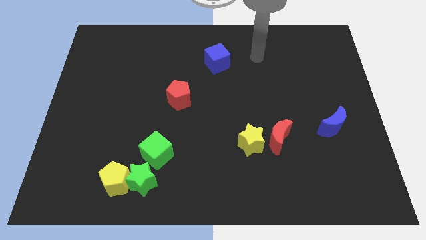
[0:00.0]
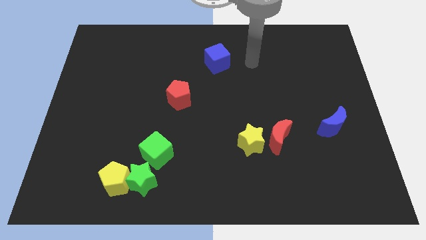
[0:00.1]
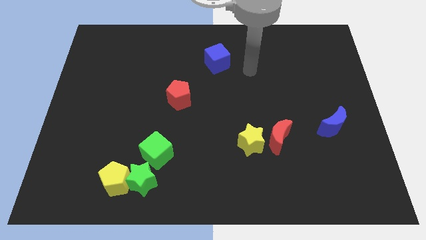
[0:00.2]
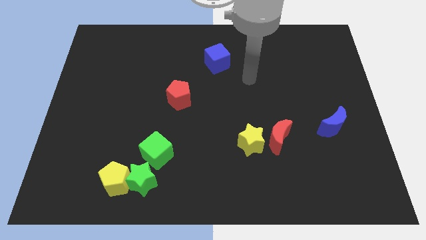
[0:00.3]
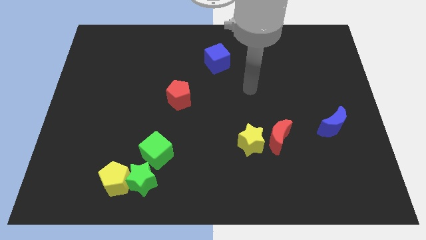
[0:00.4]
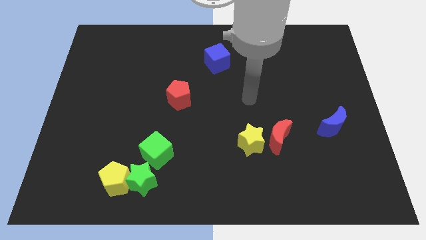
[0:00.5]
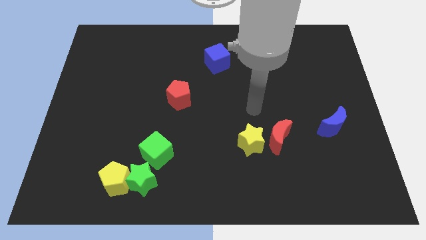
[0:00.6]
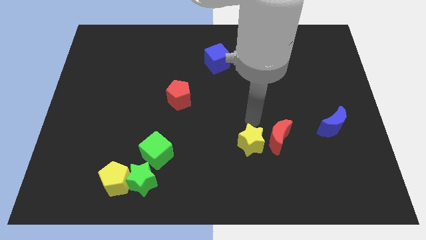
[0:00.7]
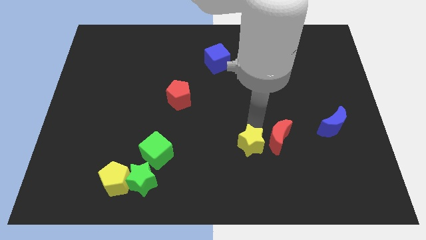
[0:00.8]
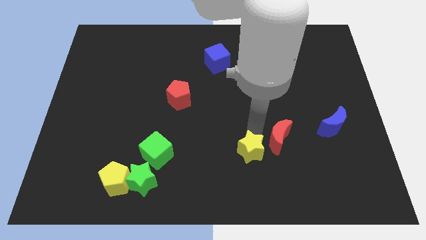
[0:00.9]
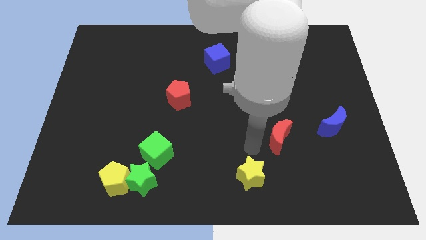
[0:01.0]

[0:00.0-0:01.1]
move the red moon away from the yellow star

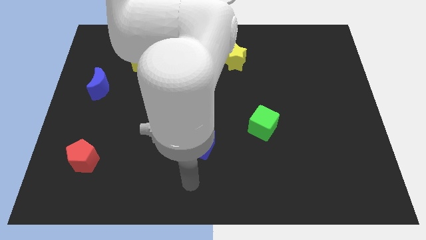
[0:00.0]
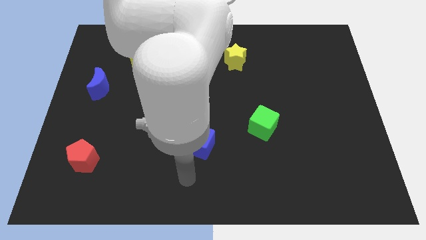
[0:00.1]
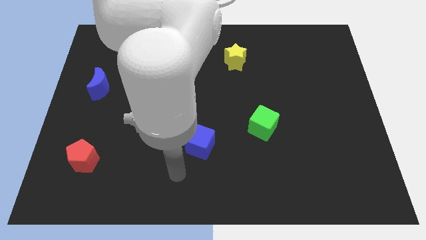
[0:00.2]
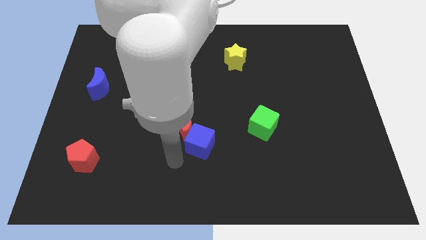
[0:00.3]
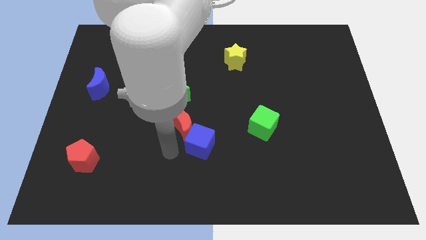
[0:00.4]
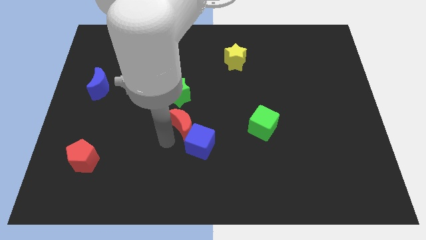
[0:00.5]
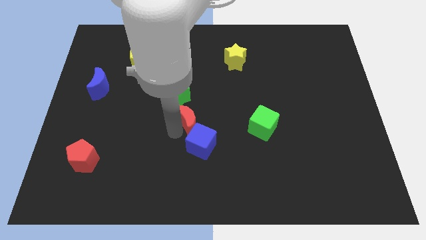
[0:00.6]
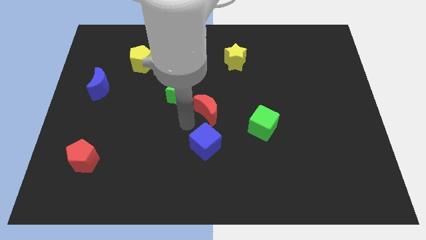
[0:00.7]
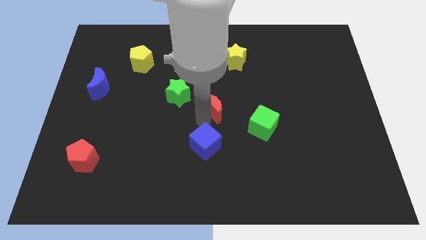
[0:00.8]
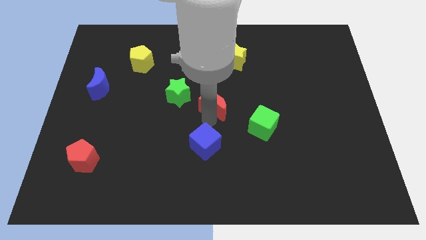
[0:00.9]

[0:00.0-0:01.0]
separate the blue cube from the red moon

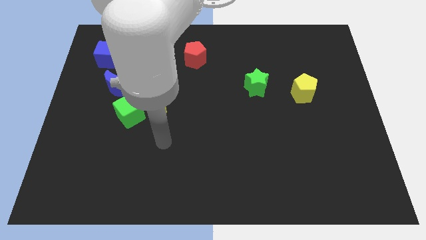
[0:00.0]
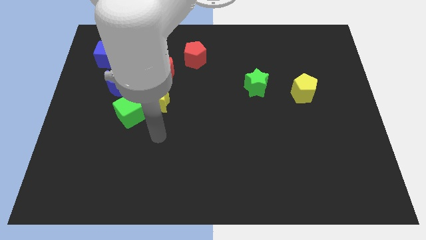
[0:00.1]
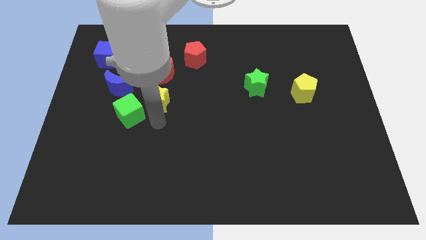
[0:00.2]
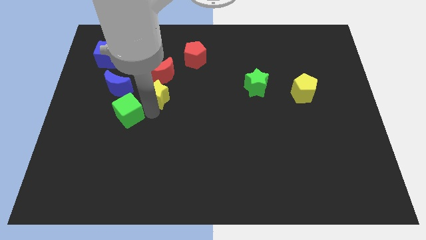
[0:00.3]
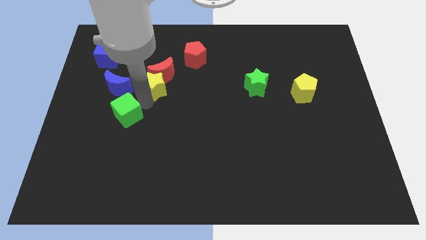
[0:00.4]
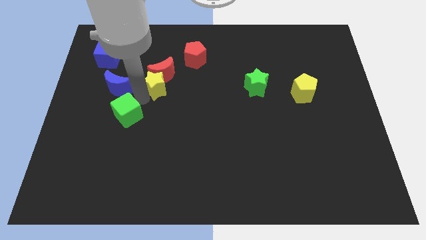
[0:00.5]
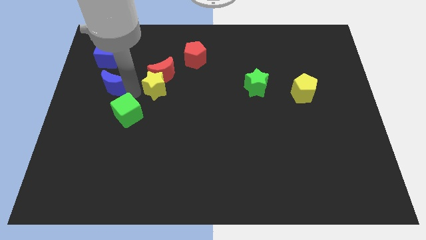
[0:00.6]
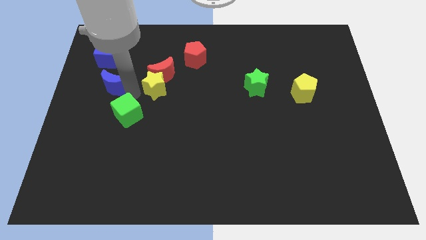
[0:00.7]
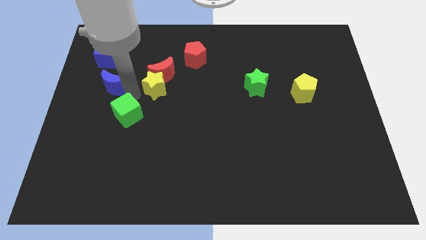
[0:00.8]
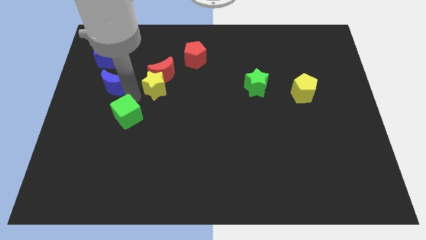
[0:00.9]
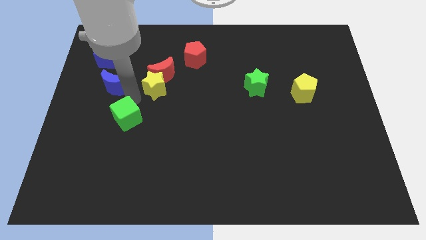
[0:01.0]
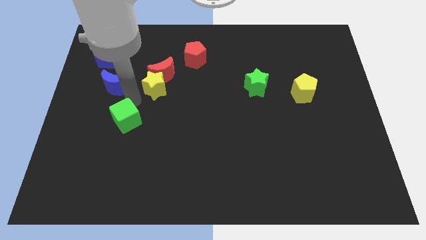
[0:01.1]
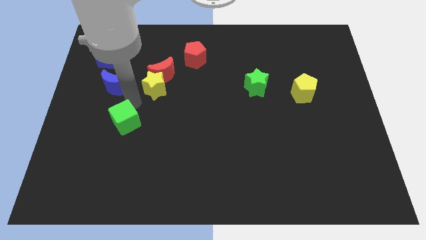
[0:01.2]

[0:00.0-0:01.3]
pull the green cube apart from the yellow star and blue moon

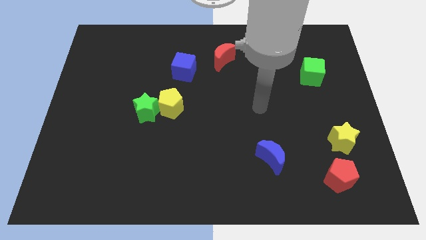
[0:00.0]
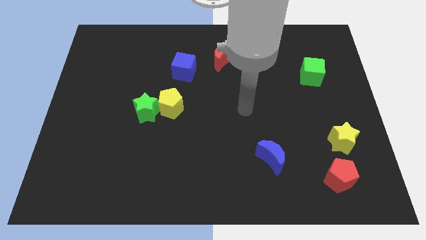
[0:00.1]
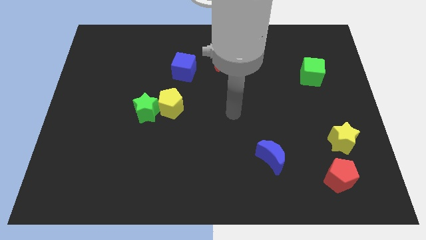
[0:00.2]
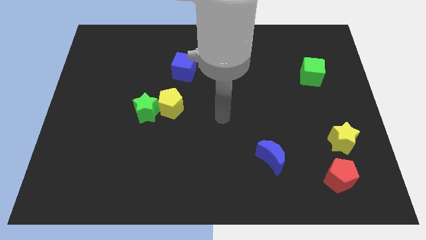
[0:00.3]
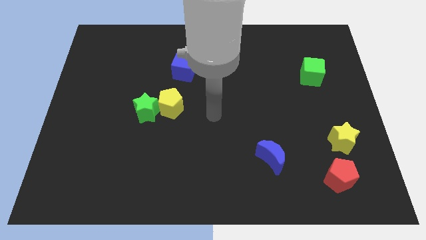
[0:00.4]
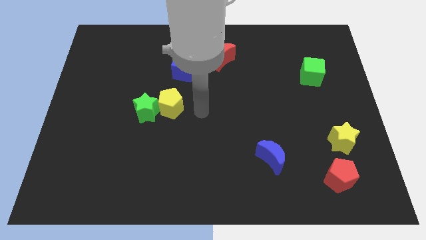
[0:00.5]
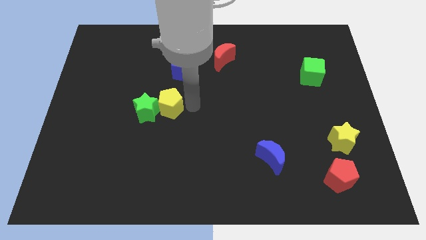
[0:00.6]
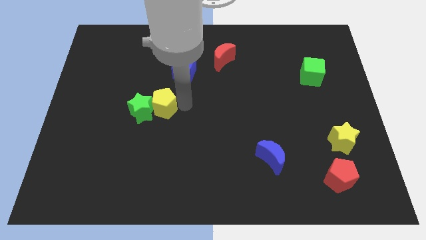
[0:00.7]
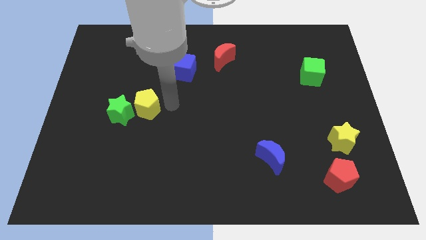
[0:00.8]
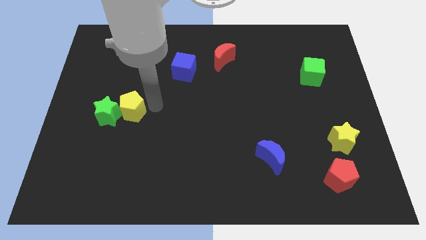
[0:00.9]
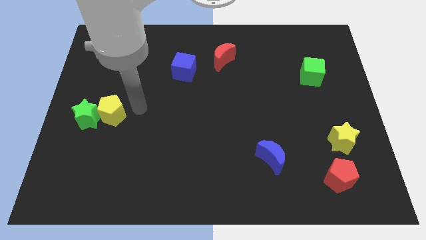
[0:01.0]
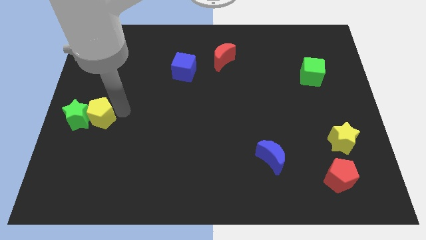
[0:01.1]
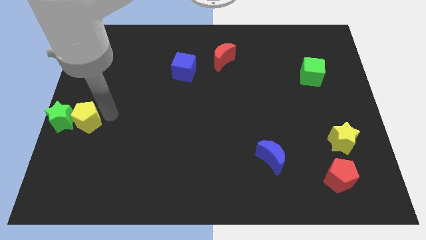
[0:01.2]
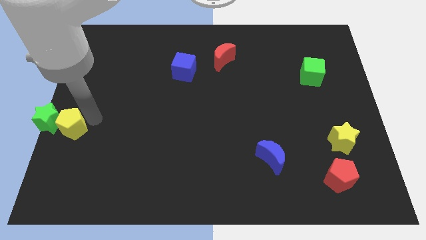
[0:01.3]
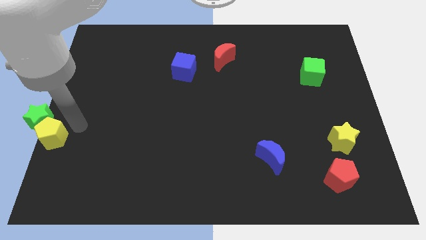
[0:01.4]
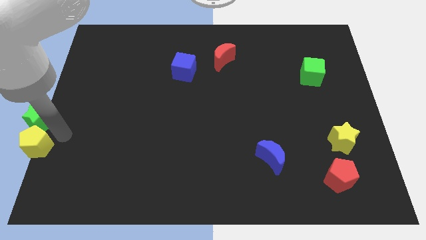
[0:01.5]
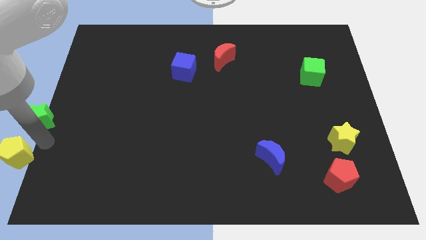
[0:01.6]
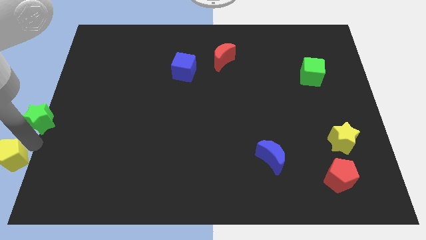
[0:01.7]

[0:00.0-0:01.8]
pull the green star apart from the yellow pentagon

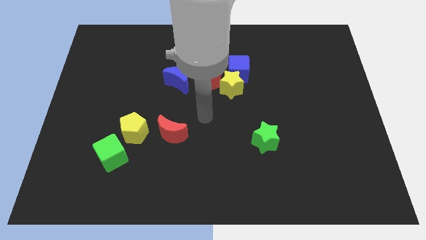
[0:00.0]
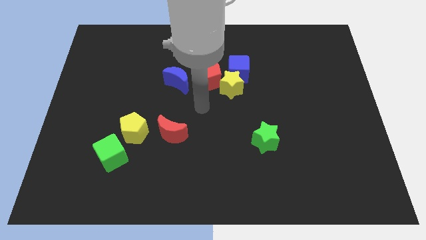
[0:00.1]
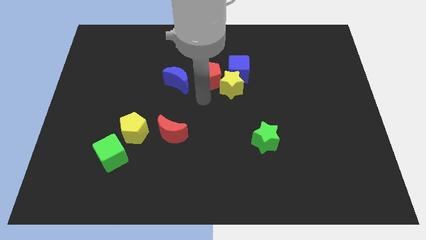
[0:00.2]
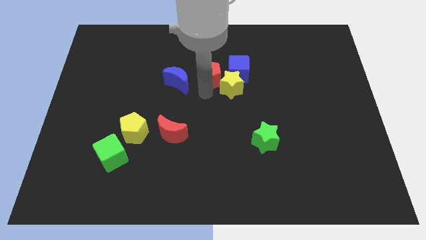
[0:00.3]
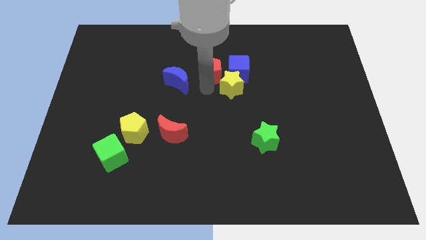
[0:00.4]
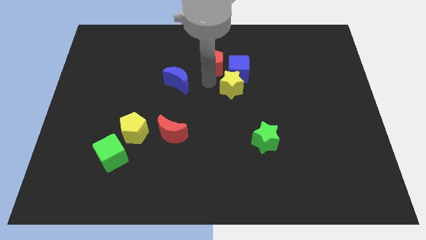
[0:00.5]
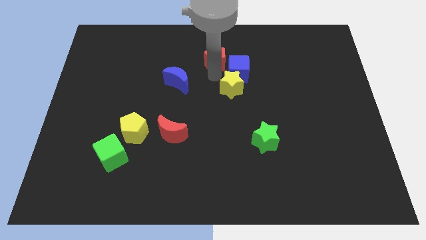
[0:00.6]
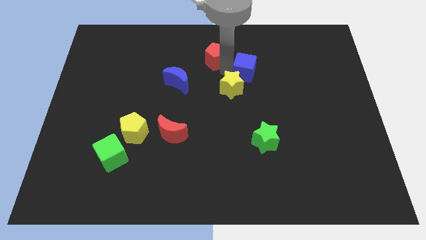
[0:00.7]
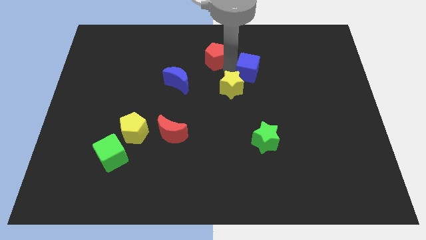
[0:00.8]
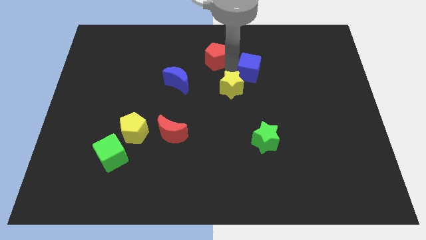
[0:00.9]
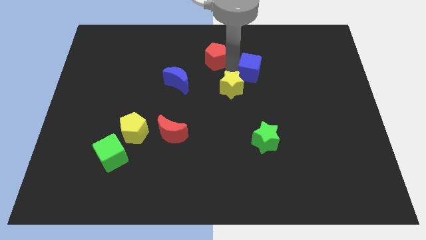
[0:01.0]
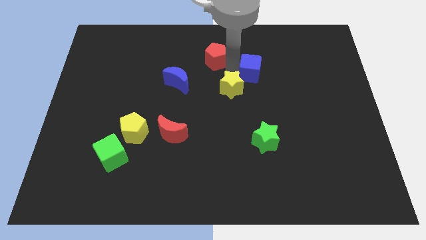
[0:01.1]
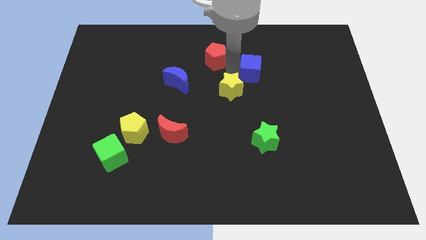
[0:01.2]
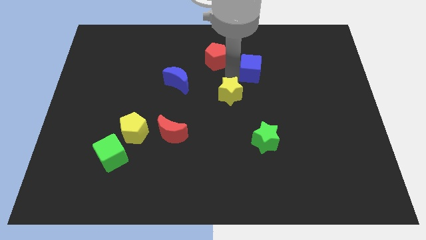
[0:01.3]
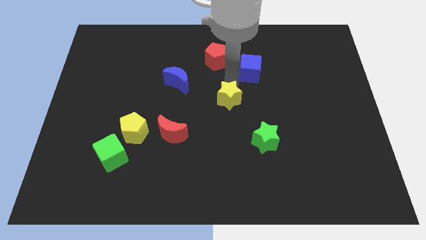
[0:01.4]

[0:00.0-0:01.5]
pull the yellow star apart from the blue cube and red pentagon

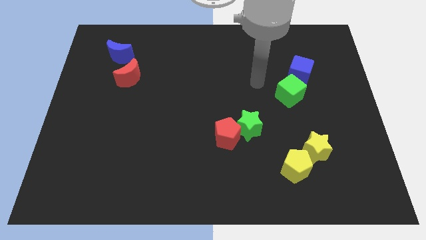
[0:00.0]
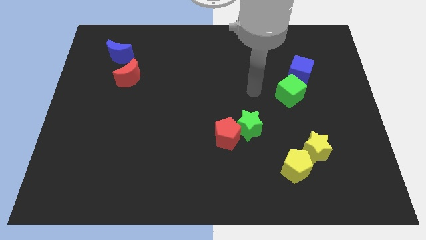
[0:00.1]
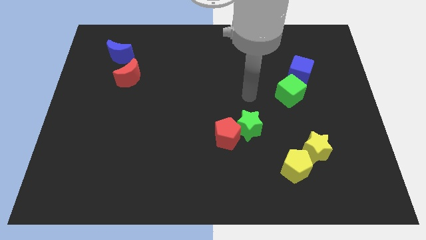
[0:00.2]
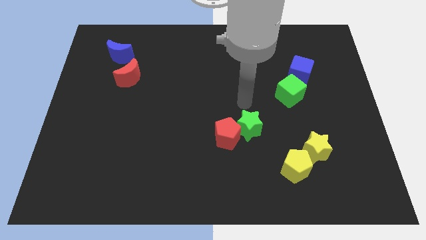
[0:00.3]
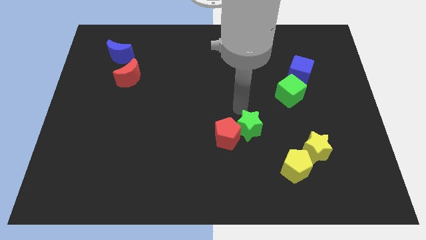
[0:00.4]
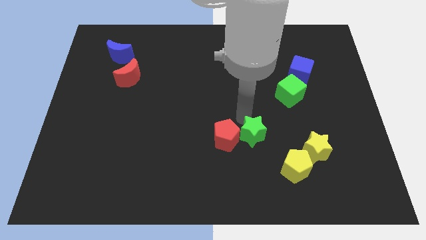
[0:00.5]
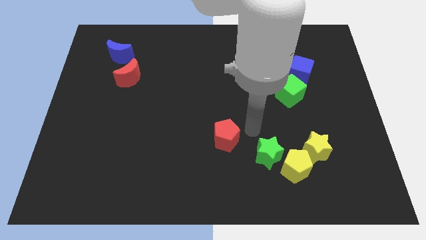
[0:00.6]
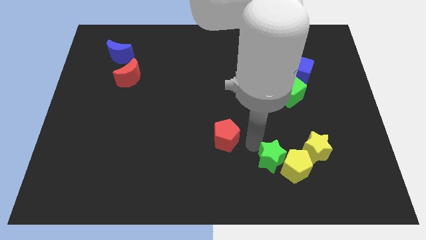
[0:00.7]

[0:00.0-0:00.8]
separate the red pentagon from the green star

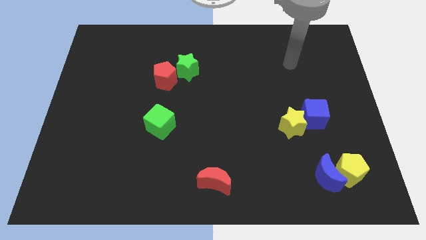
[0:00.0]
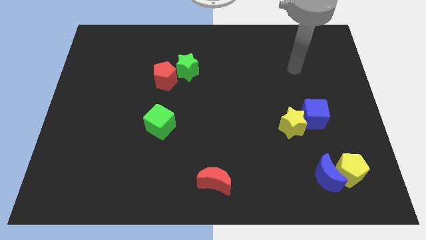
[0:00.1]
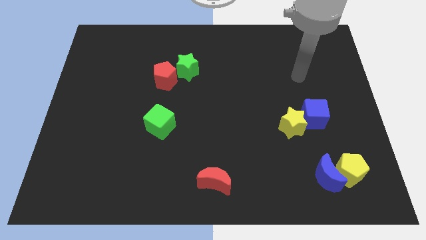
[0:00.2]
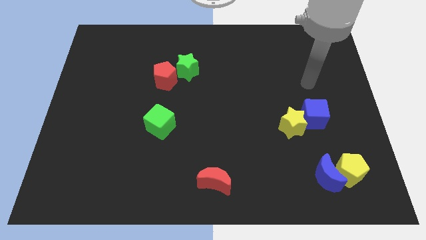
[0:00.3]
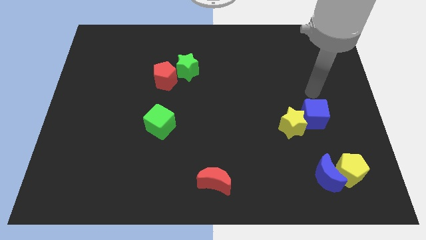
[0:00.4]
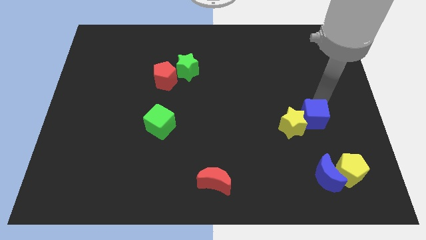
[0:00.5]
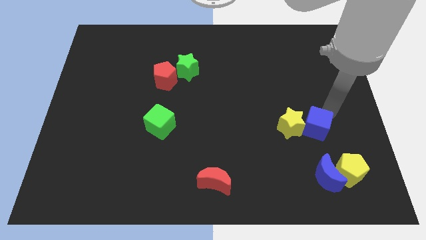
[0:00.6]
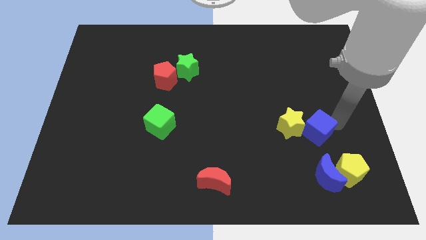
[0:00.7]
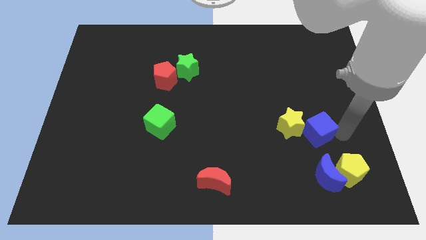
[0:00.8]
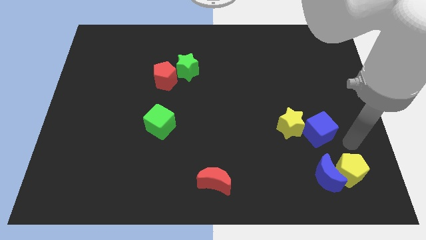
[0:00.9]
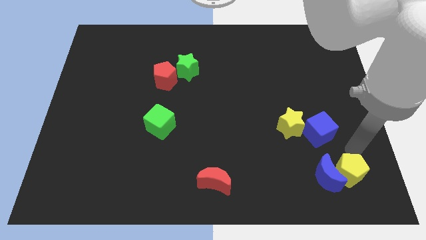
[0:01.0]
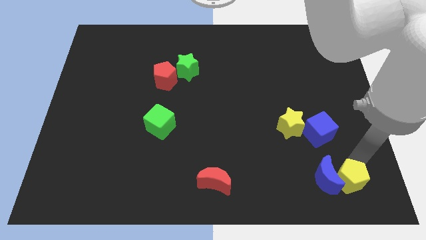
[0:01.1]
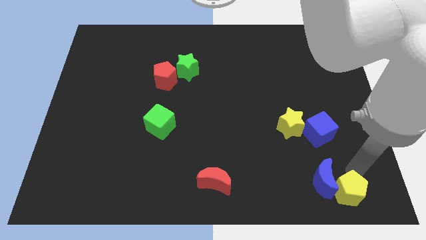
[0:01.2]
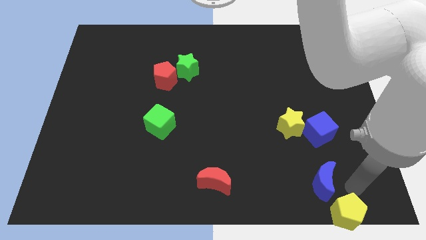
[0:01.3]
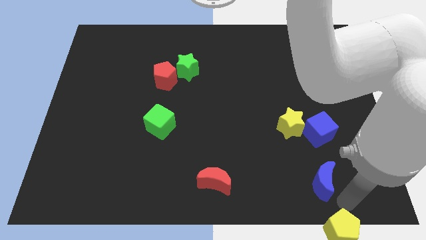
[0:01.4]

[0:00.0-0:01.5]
separate the blue moon from the yellow pentagon

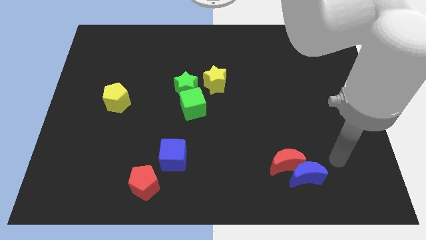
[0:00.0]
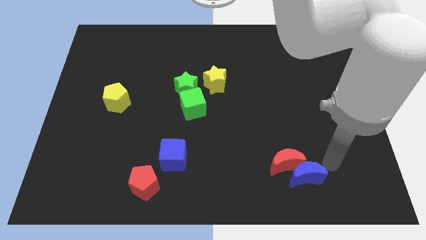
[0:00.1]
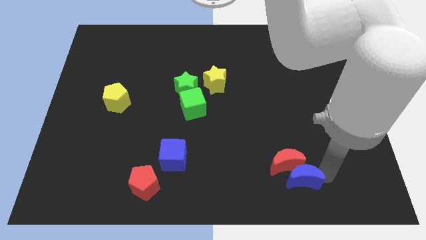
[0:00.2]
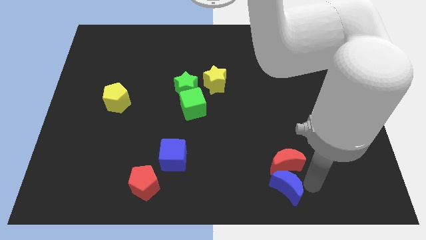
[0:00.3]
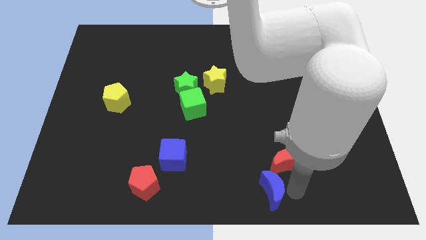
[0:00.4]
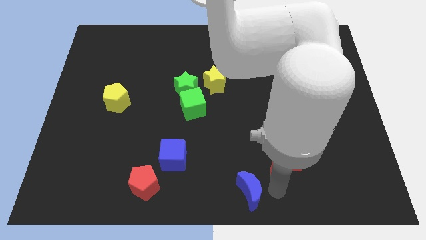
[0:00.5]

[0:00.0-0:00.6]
pull the red moon apart from the blue moon
